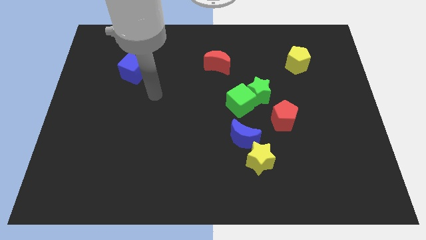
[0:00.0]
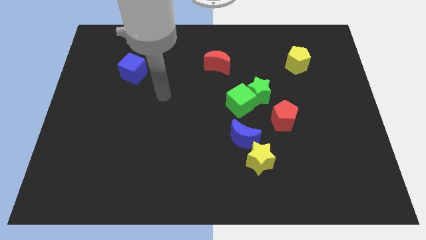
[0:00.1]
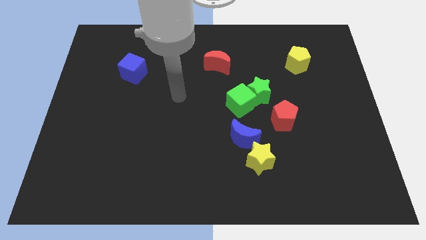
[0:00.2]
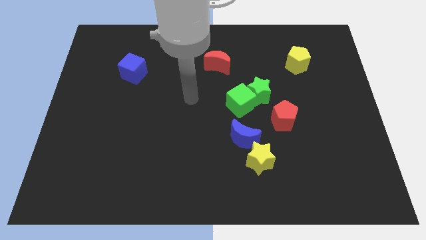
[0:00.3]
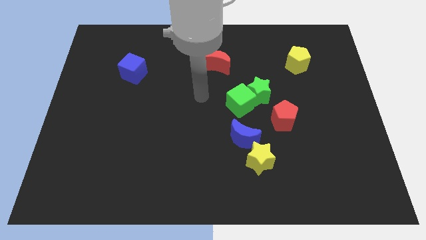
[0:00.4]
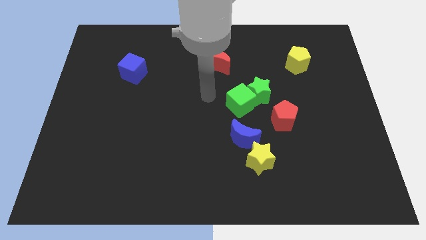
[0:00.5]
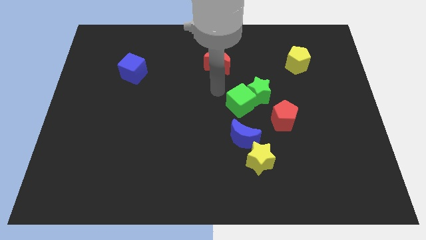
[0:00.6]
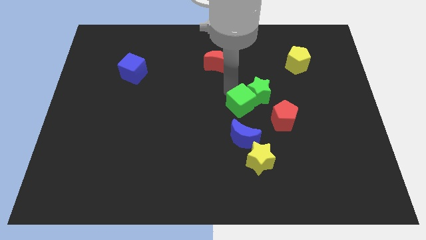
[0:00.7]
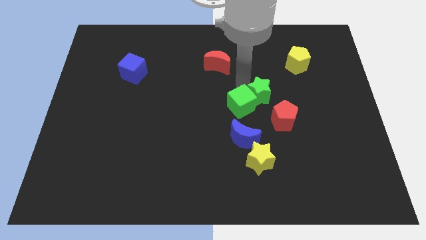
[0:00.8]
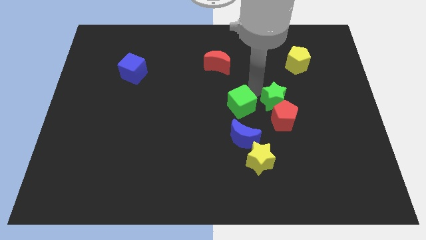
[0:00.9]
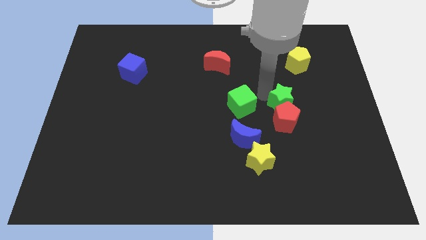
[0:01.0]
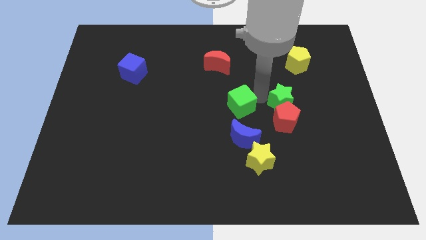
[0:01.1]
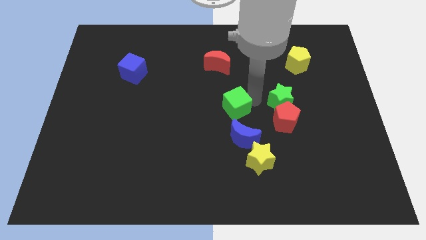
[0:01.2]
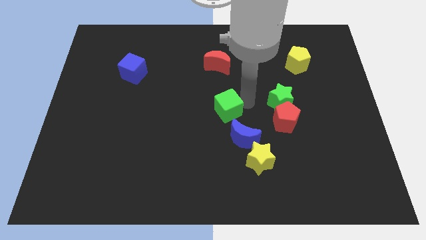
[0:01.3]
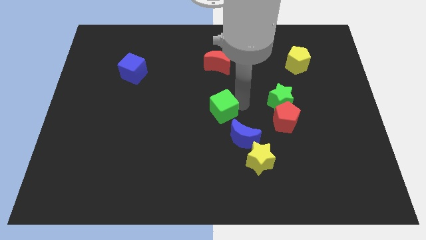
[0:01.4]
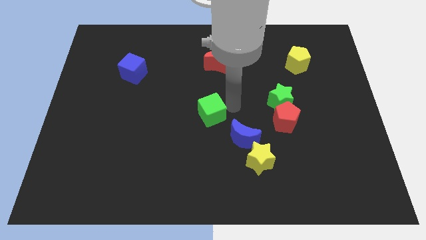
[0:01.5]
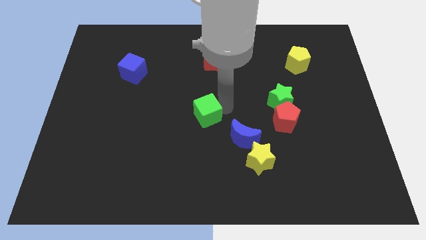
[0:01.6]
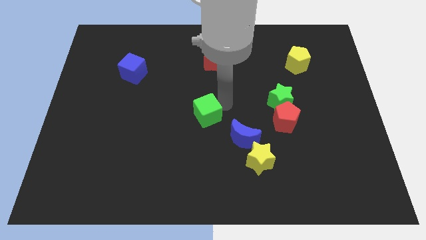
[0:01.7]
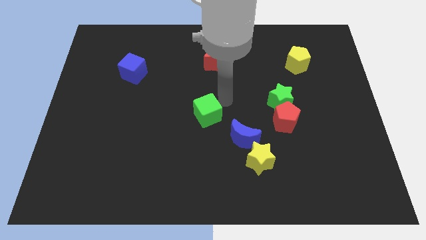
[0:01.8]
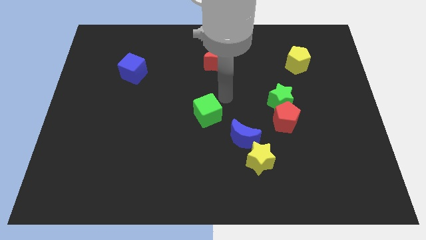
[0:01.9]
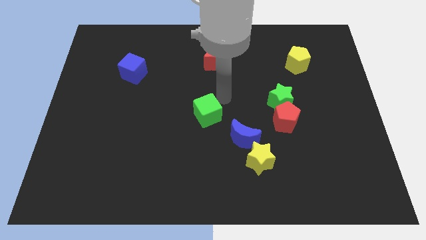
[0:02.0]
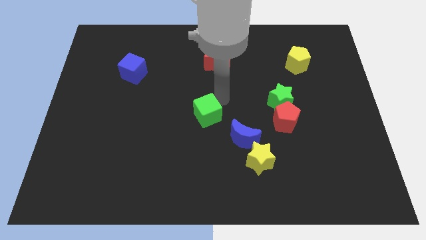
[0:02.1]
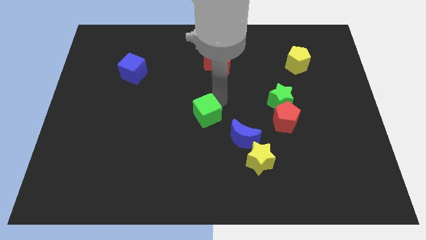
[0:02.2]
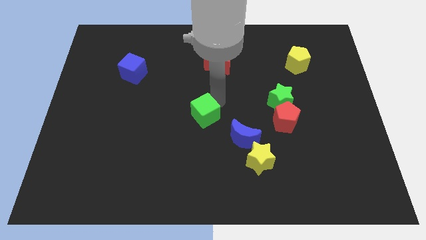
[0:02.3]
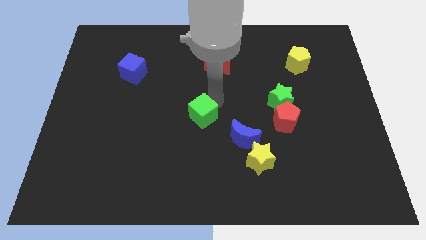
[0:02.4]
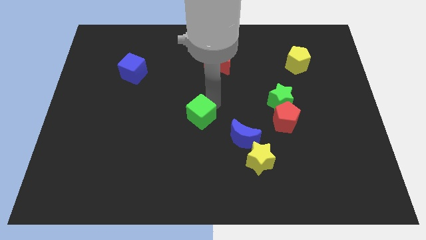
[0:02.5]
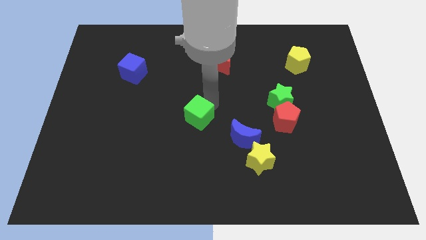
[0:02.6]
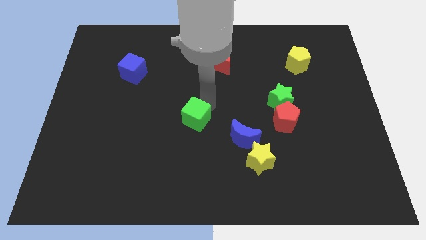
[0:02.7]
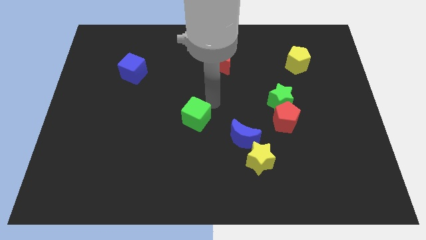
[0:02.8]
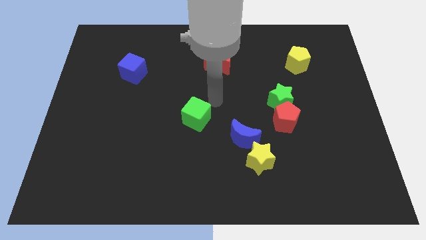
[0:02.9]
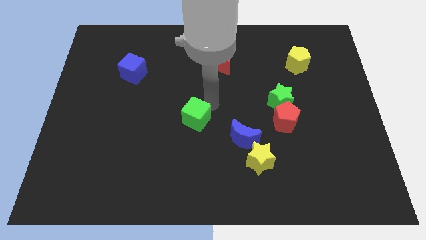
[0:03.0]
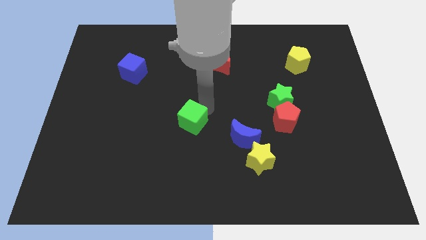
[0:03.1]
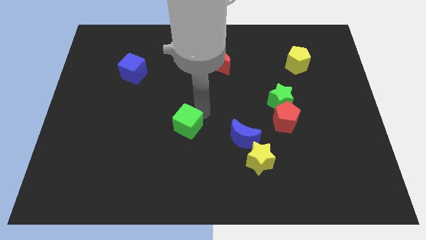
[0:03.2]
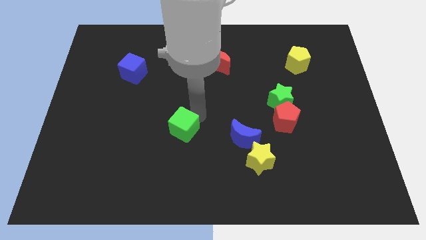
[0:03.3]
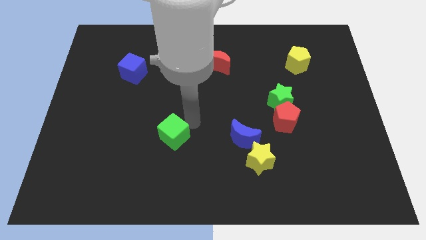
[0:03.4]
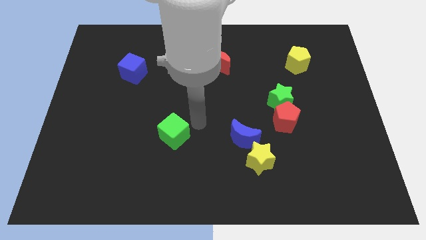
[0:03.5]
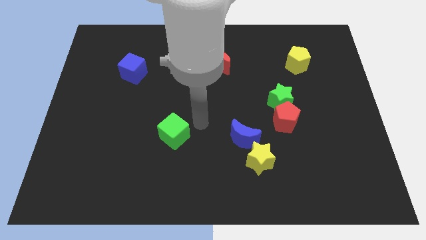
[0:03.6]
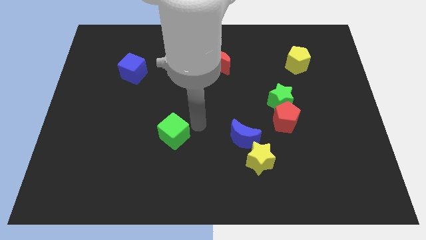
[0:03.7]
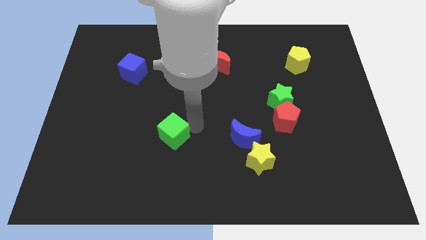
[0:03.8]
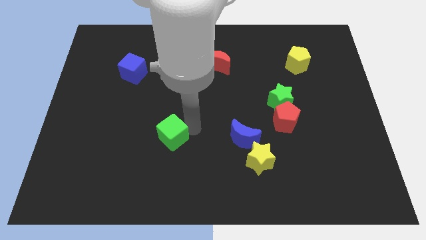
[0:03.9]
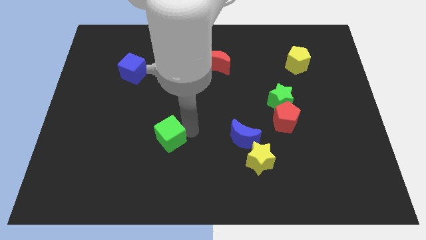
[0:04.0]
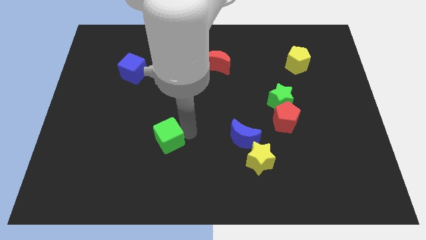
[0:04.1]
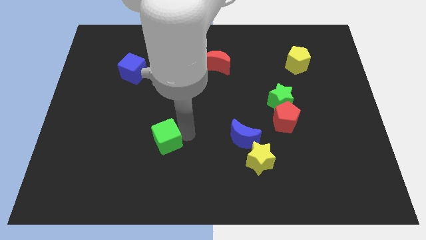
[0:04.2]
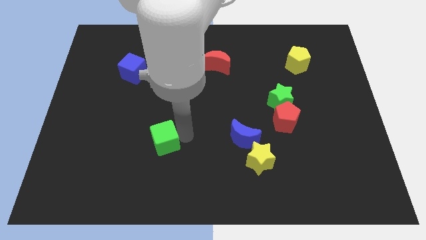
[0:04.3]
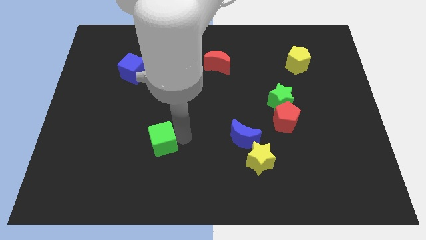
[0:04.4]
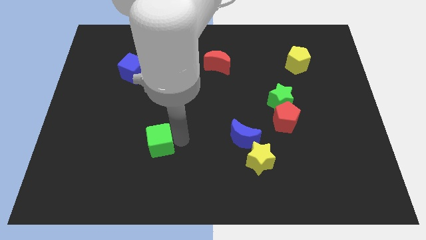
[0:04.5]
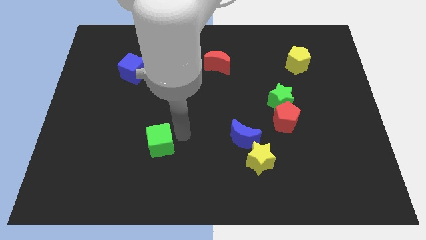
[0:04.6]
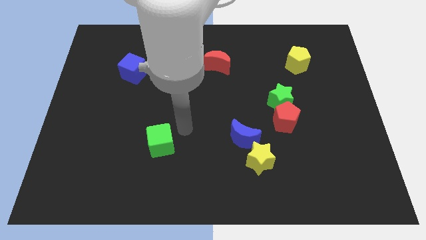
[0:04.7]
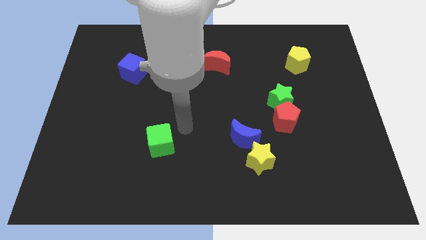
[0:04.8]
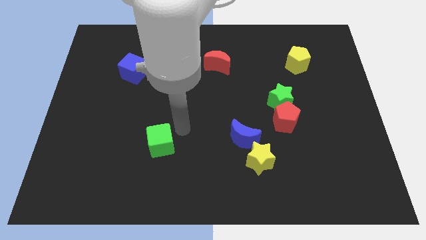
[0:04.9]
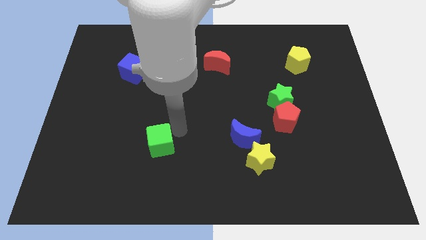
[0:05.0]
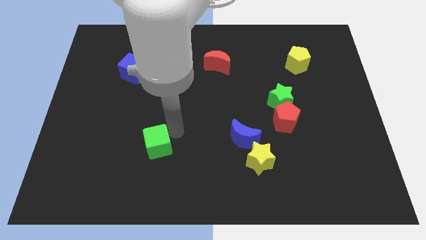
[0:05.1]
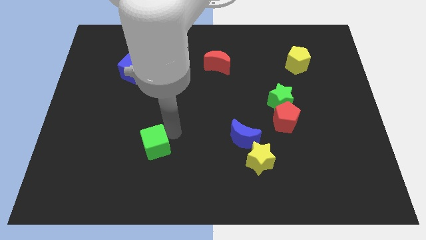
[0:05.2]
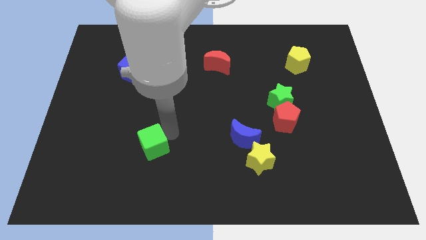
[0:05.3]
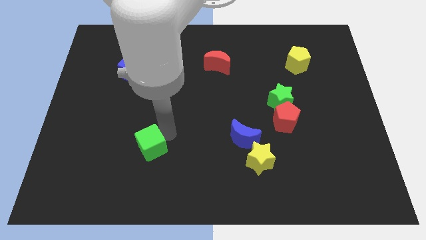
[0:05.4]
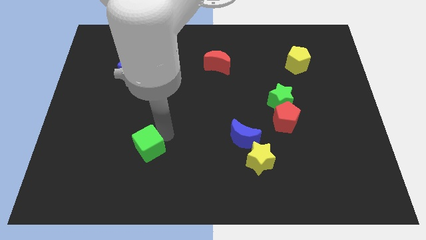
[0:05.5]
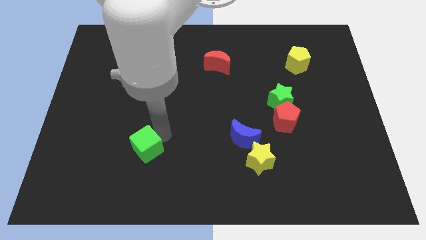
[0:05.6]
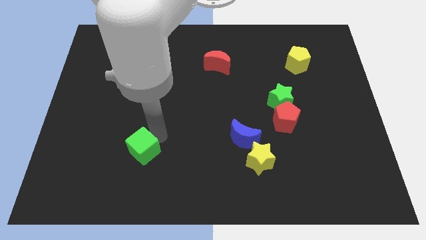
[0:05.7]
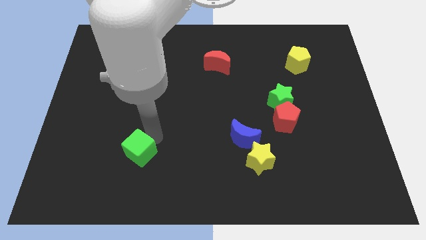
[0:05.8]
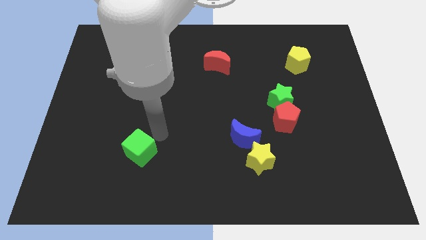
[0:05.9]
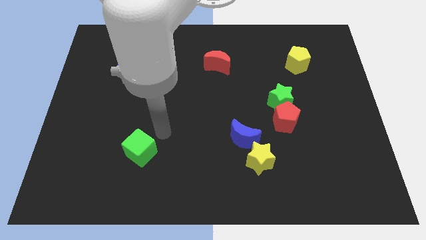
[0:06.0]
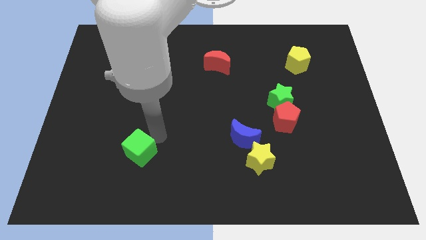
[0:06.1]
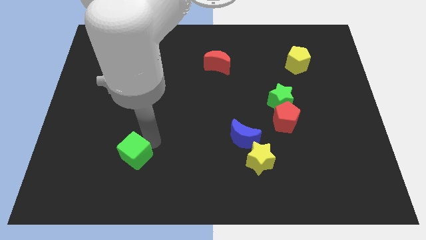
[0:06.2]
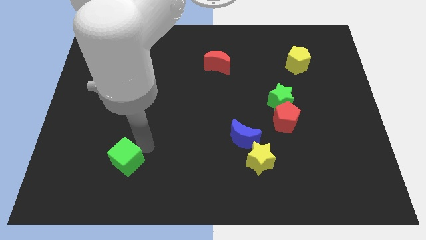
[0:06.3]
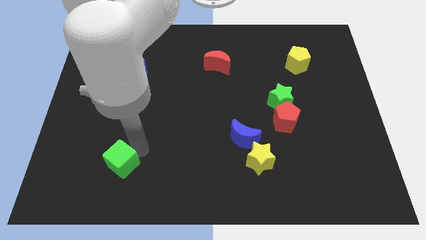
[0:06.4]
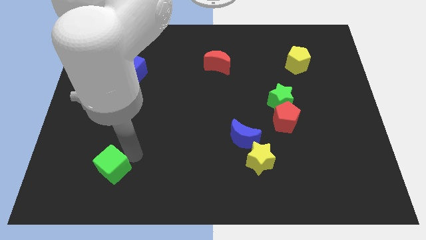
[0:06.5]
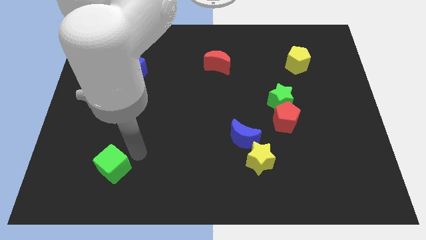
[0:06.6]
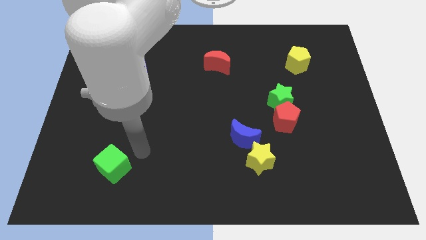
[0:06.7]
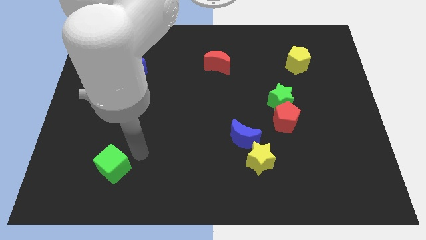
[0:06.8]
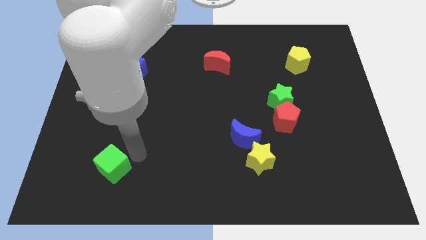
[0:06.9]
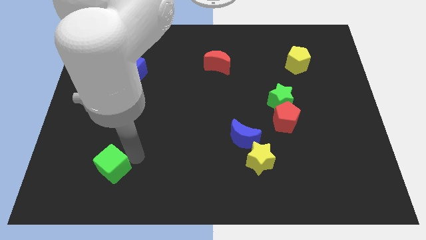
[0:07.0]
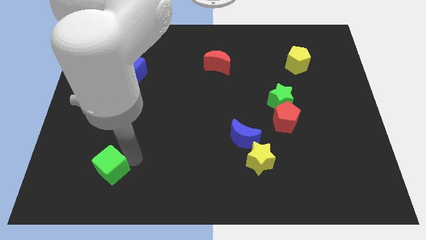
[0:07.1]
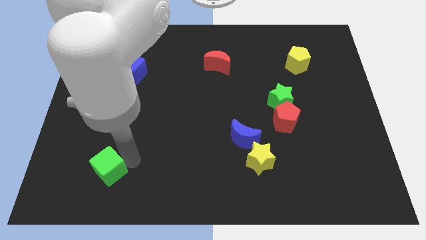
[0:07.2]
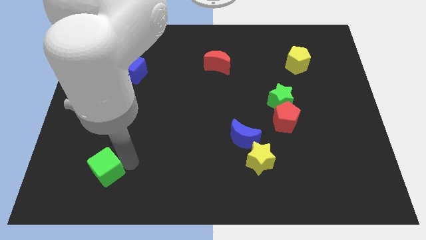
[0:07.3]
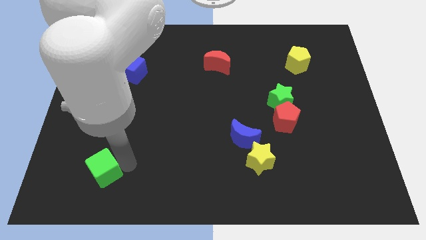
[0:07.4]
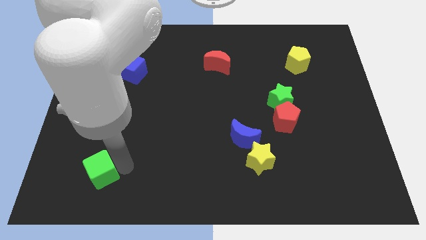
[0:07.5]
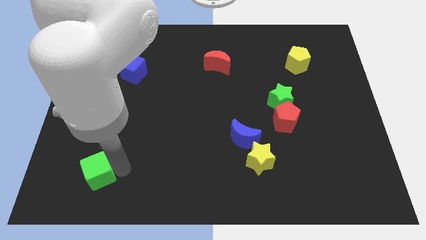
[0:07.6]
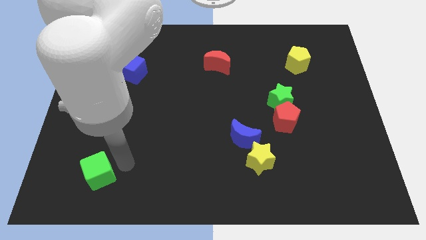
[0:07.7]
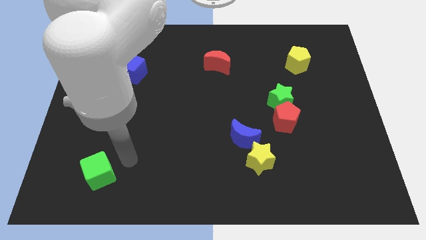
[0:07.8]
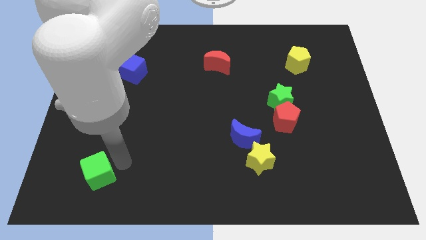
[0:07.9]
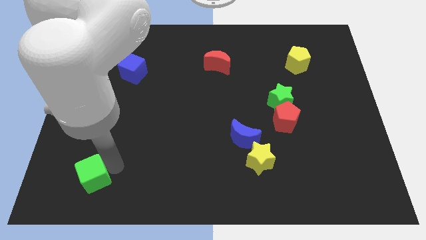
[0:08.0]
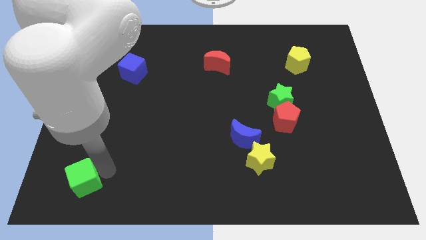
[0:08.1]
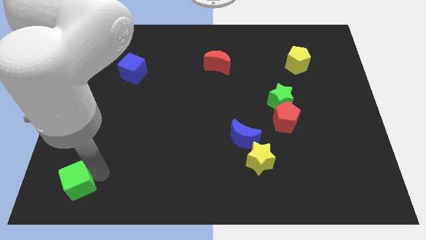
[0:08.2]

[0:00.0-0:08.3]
move the green cube to the bottom left
